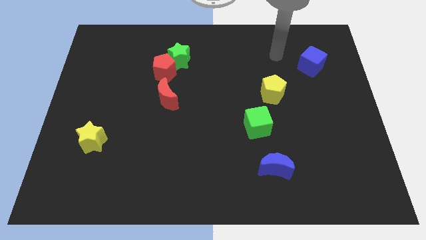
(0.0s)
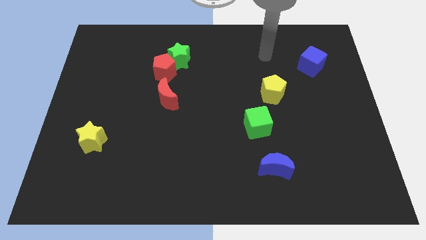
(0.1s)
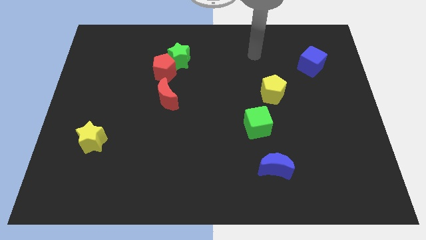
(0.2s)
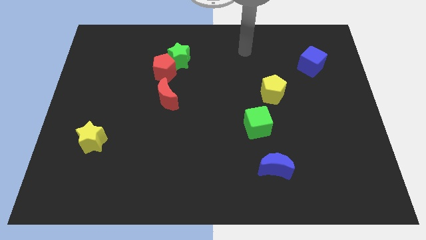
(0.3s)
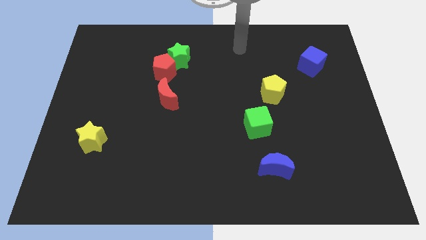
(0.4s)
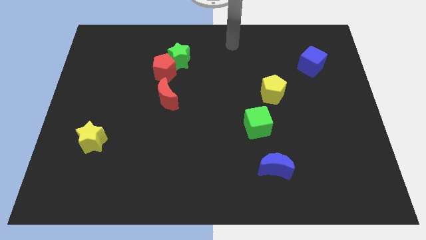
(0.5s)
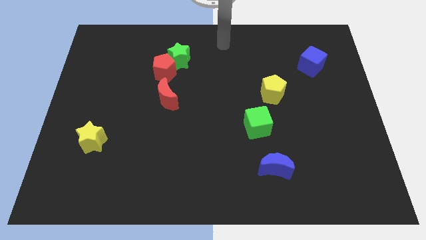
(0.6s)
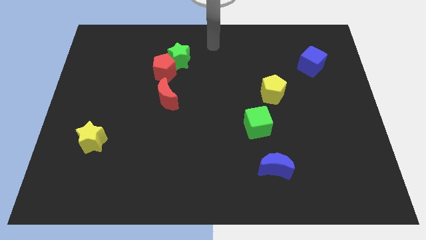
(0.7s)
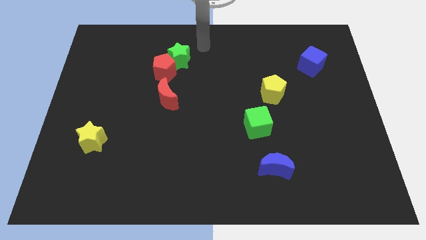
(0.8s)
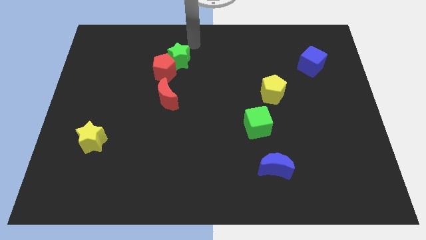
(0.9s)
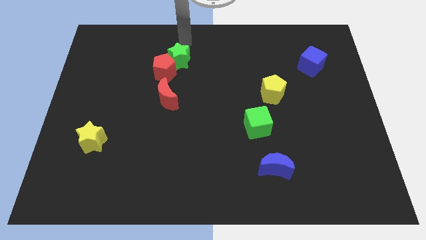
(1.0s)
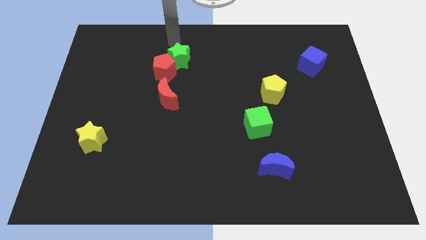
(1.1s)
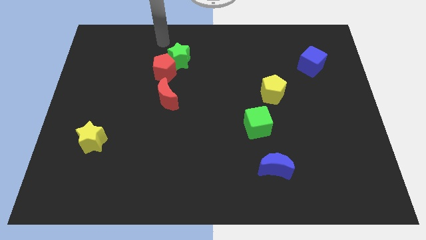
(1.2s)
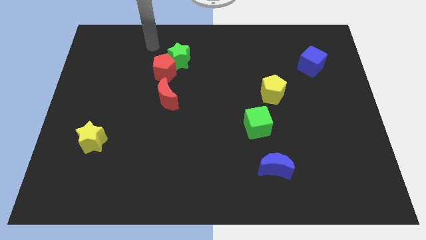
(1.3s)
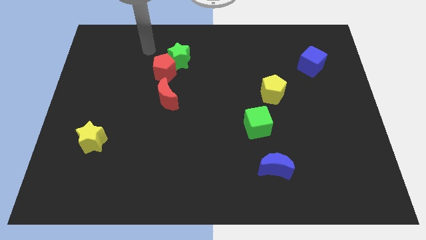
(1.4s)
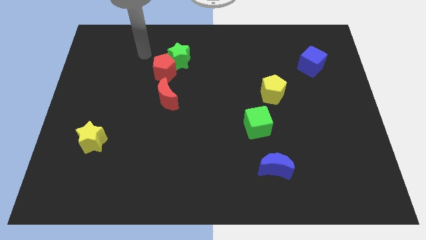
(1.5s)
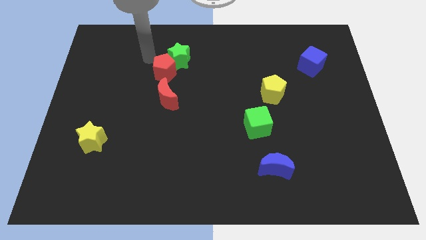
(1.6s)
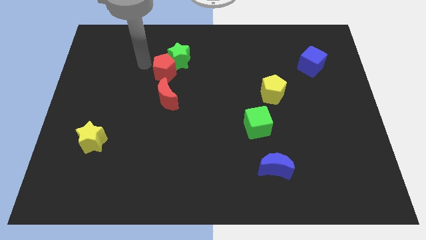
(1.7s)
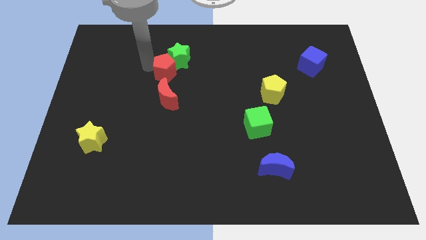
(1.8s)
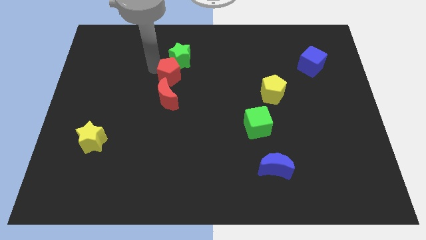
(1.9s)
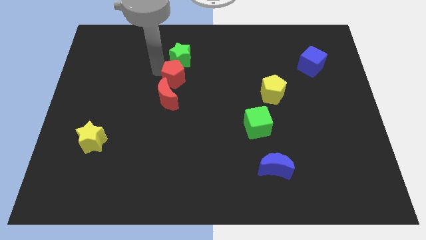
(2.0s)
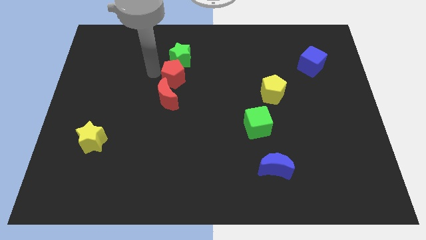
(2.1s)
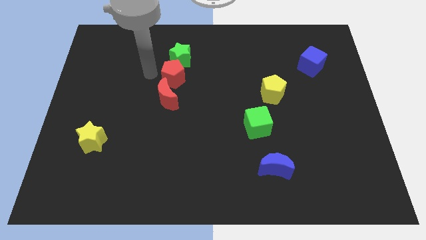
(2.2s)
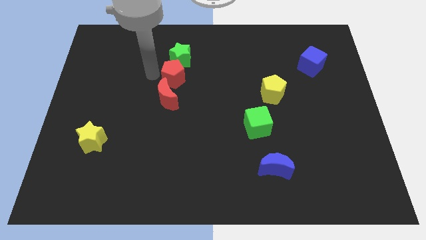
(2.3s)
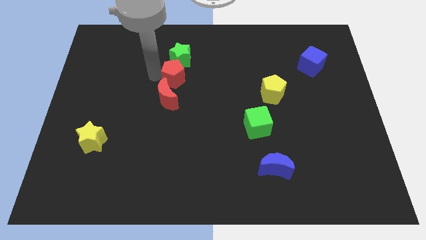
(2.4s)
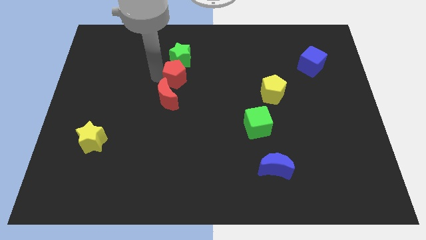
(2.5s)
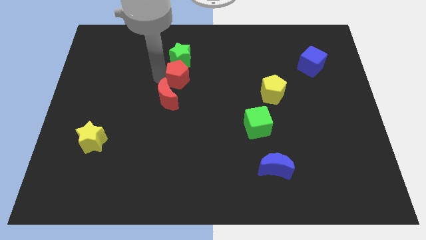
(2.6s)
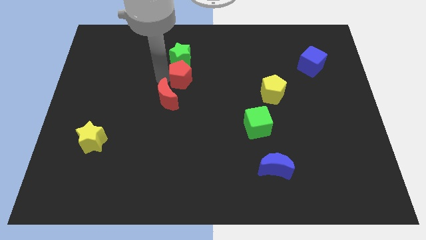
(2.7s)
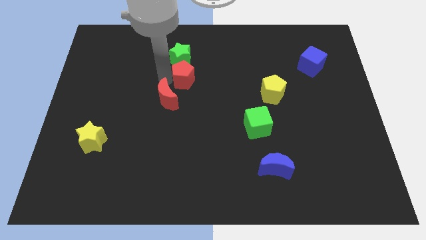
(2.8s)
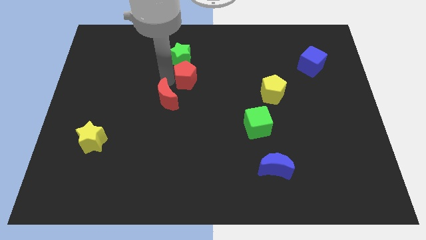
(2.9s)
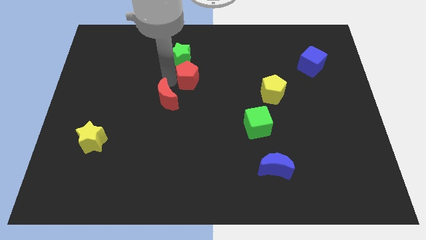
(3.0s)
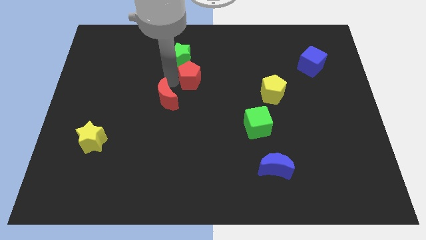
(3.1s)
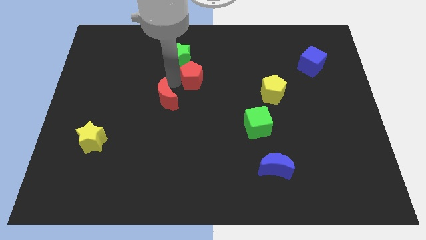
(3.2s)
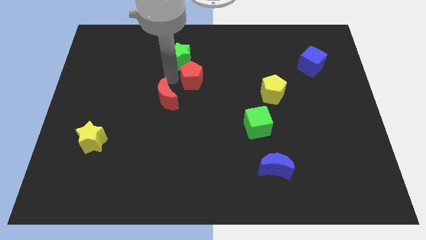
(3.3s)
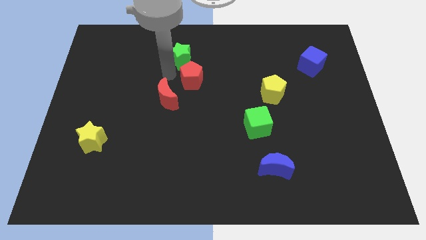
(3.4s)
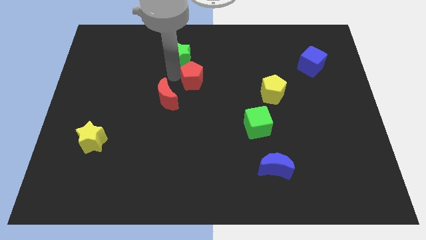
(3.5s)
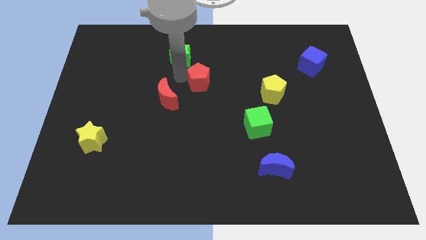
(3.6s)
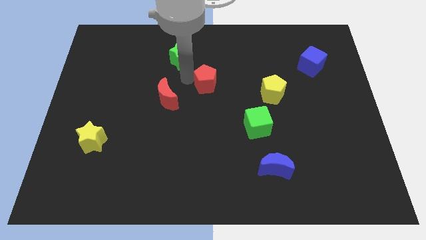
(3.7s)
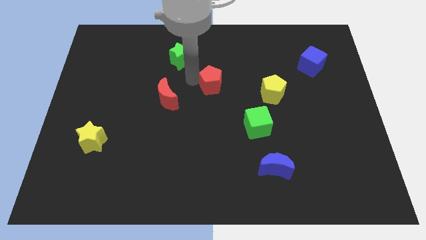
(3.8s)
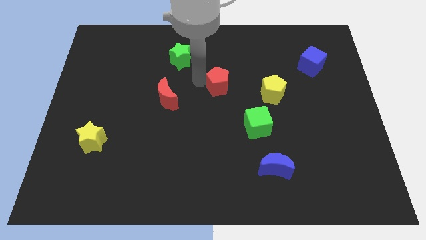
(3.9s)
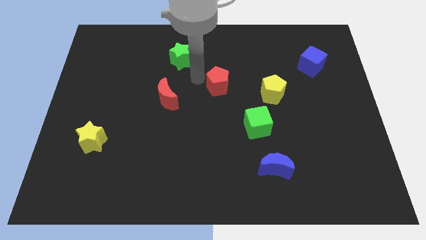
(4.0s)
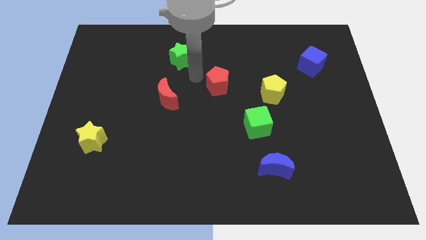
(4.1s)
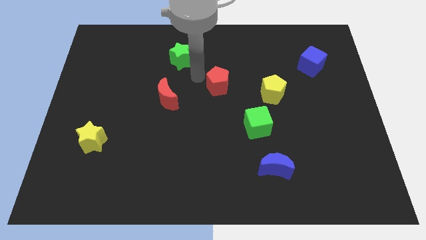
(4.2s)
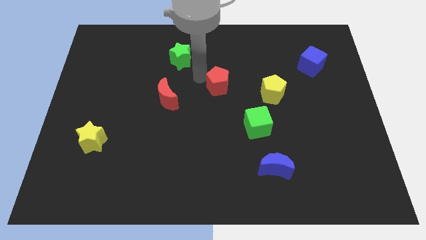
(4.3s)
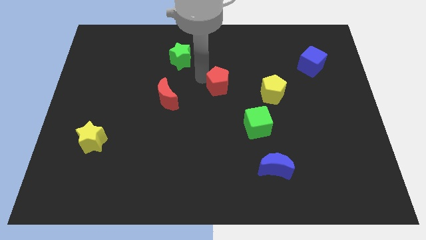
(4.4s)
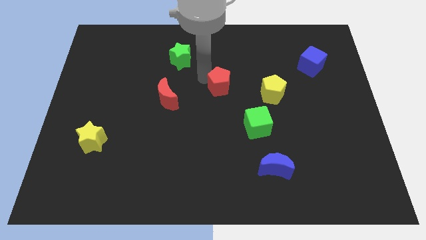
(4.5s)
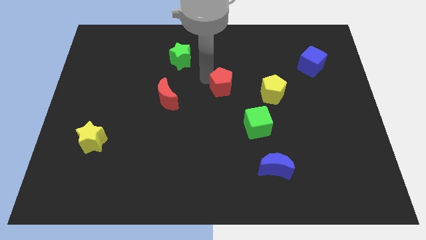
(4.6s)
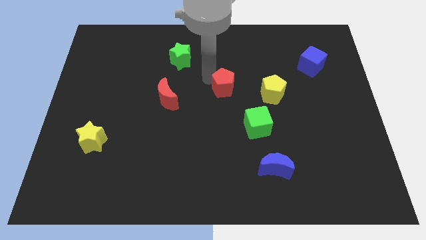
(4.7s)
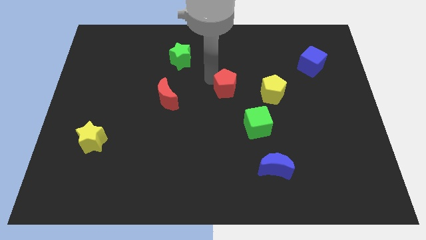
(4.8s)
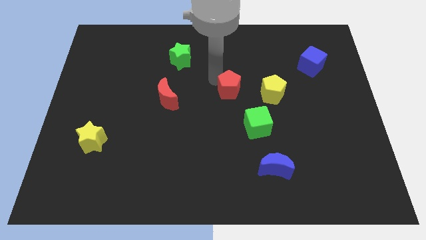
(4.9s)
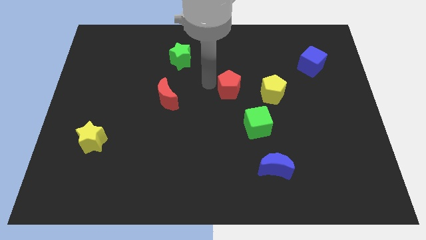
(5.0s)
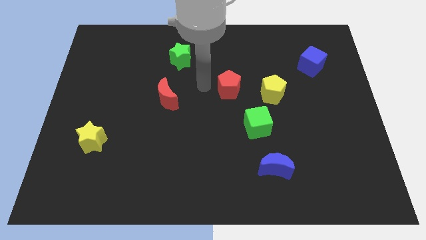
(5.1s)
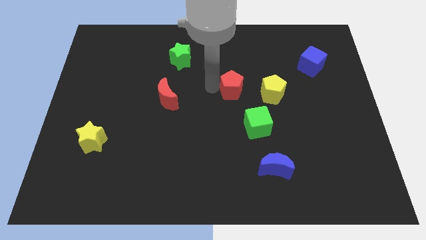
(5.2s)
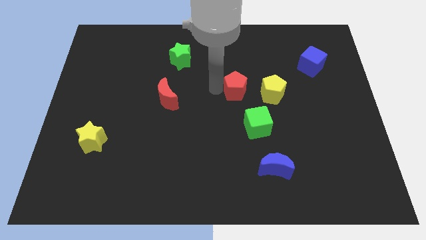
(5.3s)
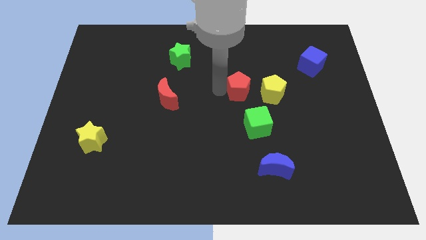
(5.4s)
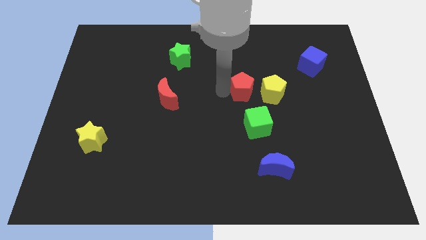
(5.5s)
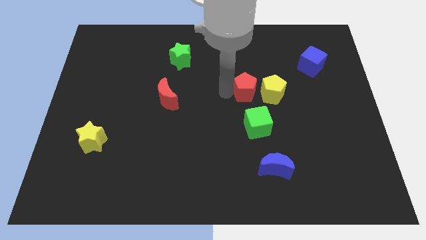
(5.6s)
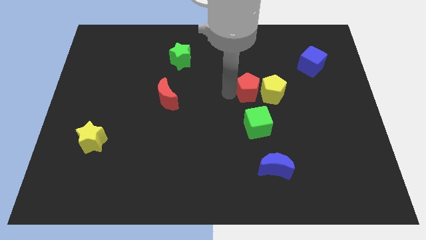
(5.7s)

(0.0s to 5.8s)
put the red pentagon towards the yellow pentagon

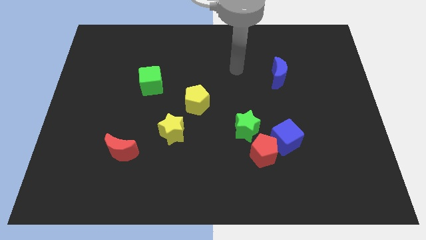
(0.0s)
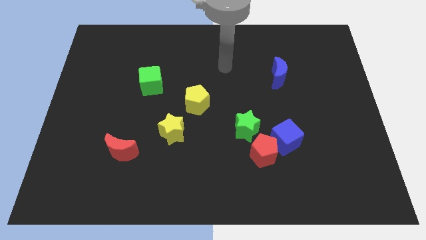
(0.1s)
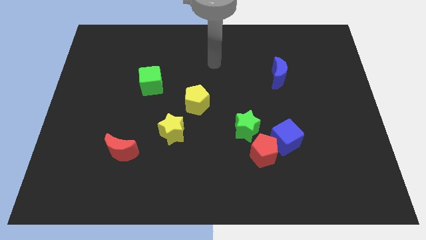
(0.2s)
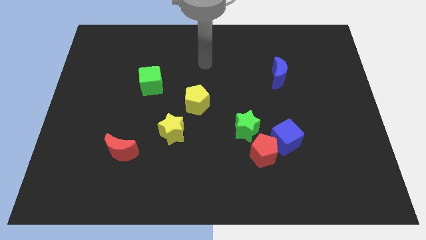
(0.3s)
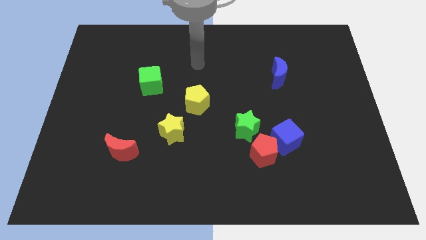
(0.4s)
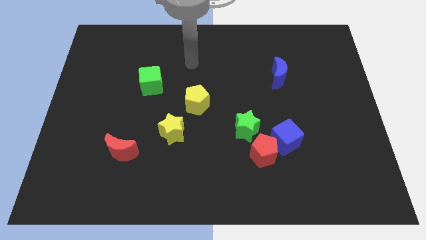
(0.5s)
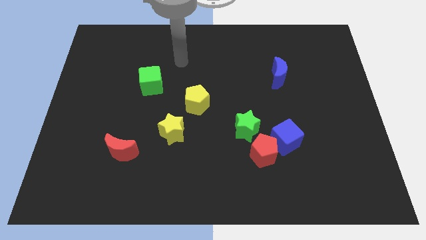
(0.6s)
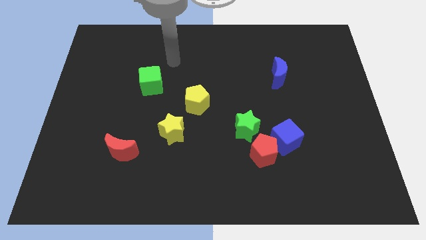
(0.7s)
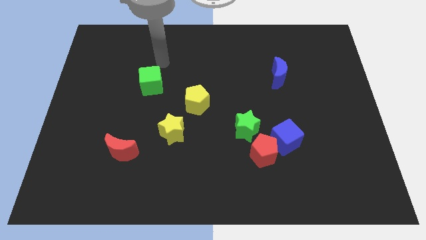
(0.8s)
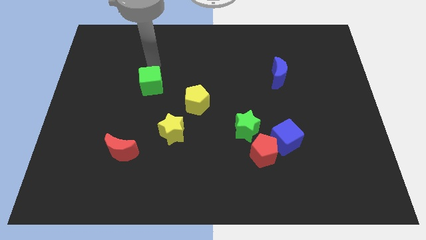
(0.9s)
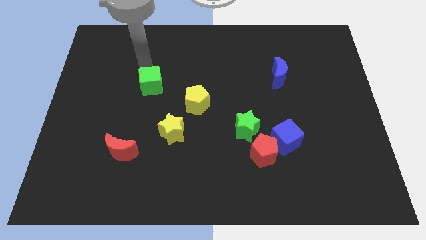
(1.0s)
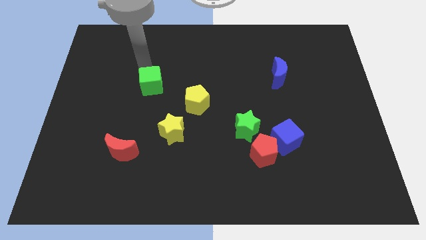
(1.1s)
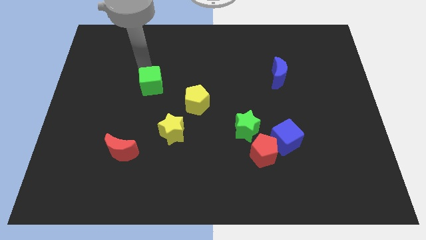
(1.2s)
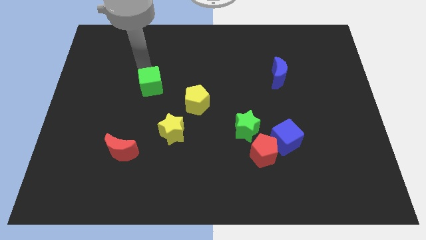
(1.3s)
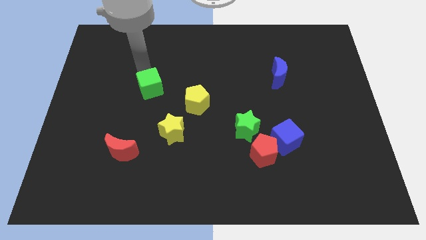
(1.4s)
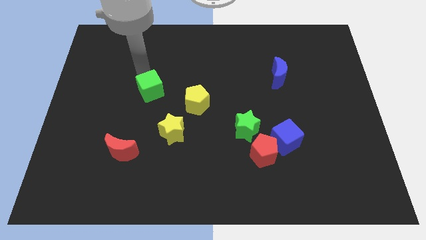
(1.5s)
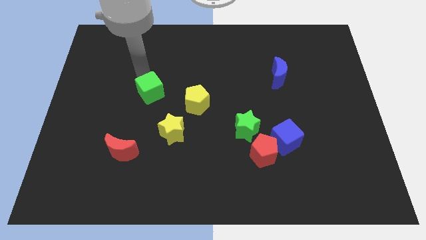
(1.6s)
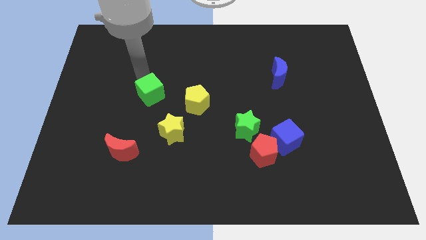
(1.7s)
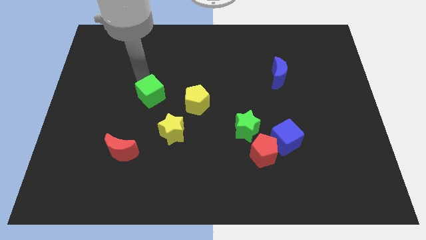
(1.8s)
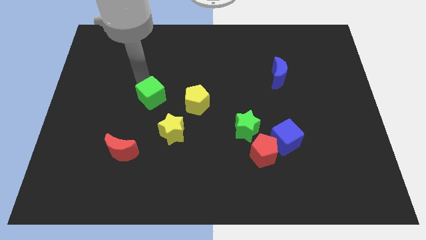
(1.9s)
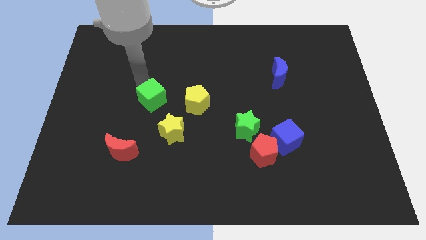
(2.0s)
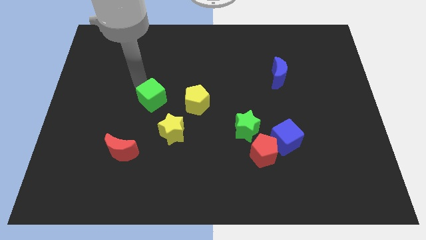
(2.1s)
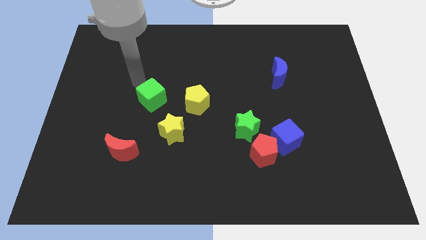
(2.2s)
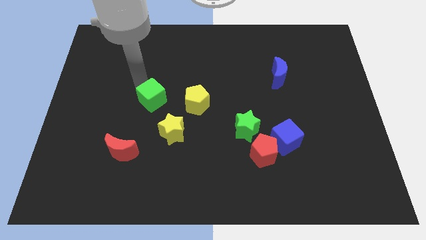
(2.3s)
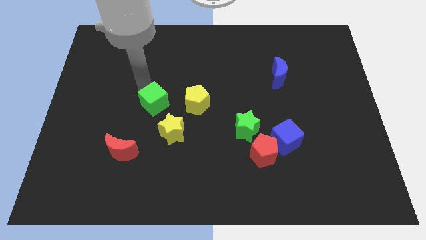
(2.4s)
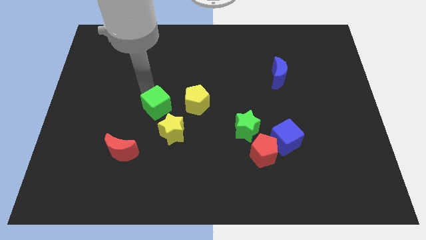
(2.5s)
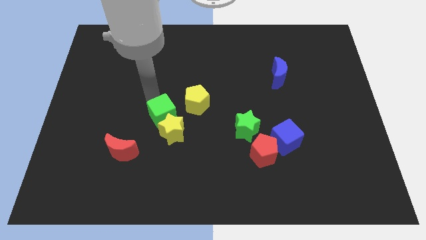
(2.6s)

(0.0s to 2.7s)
push the green cube next to the yellow star
